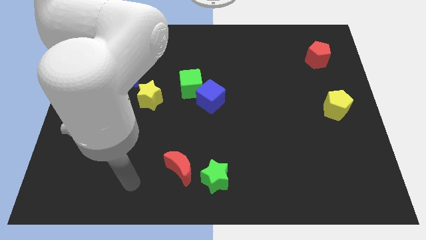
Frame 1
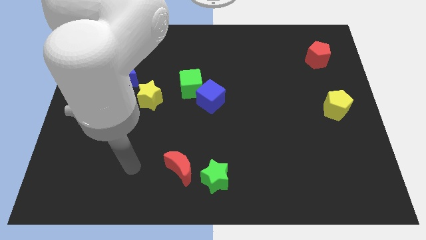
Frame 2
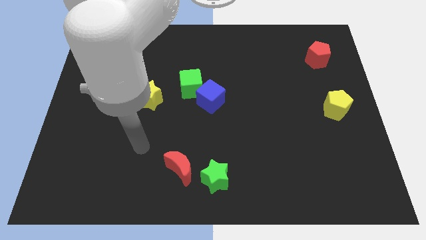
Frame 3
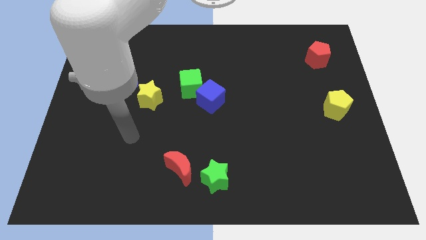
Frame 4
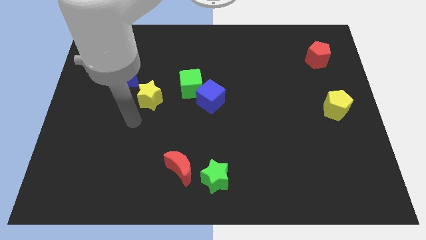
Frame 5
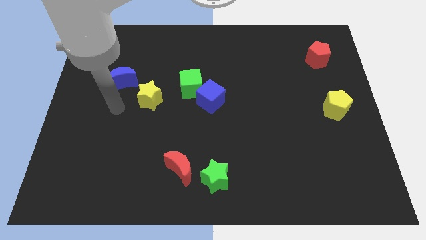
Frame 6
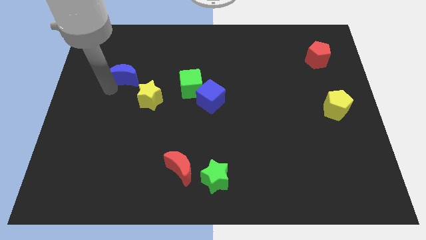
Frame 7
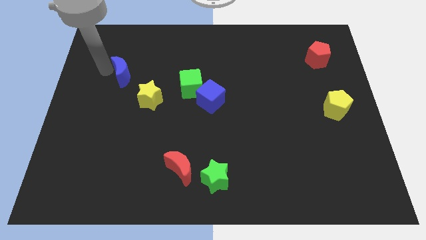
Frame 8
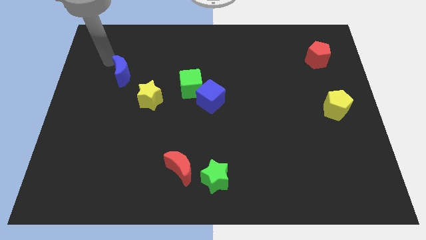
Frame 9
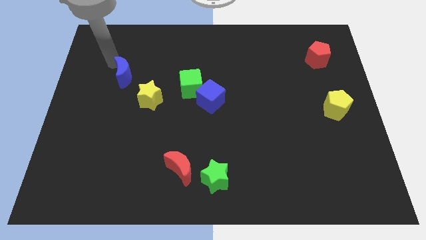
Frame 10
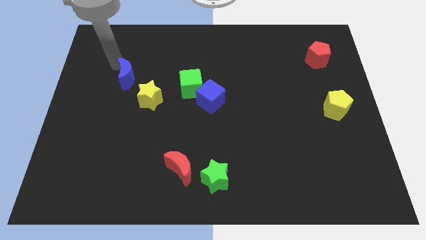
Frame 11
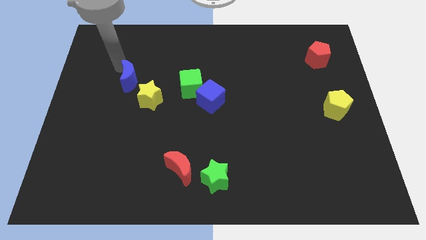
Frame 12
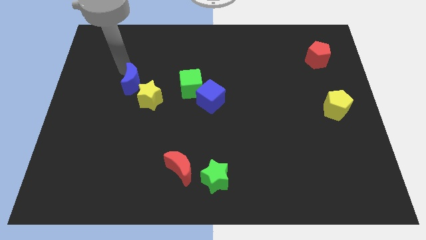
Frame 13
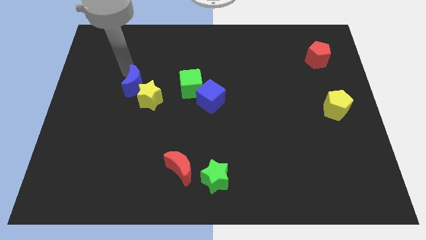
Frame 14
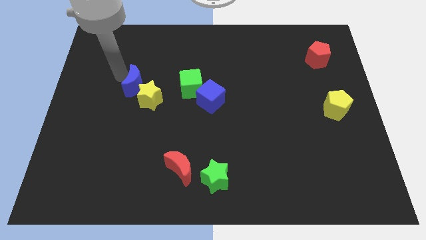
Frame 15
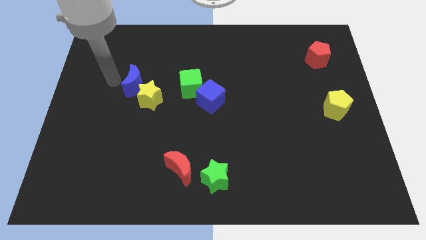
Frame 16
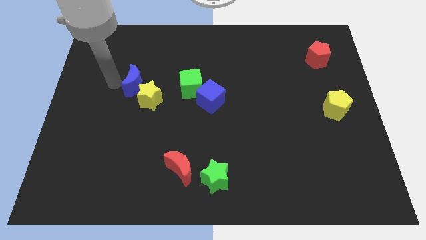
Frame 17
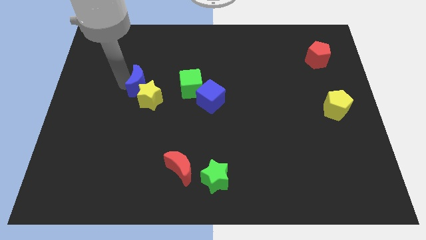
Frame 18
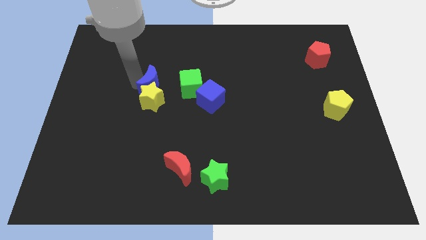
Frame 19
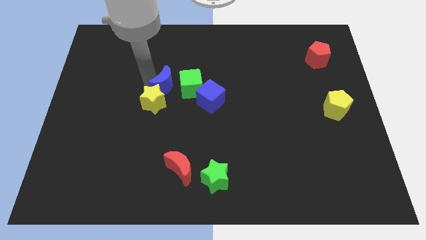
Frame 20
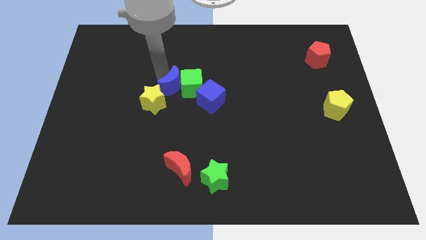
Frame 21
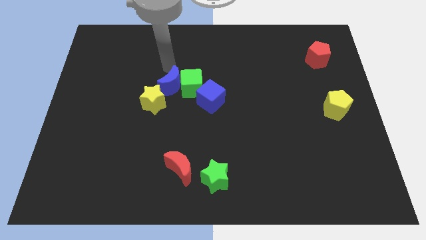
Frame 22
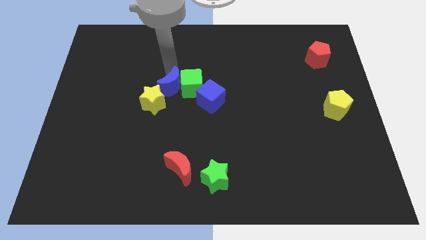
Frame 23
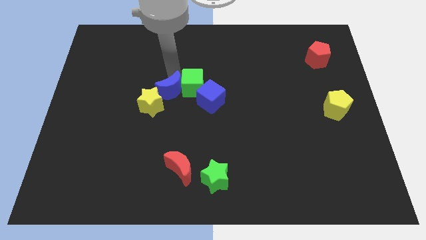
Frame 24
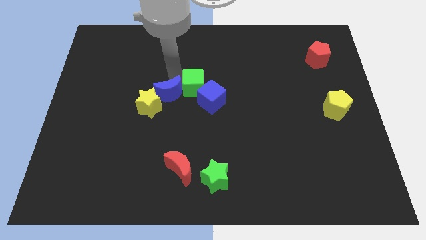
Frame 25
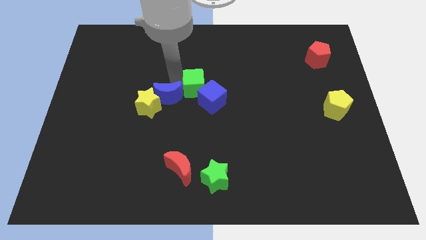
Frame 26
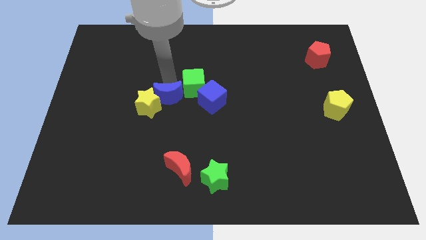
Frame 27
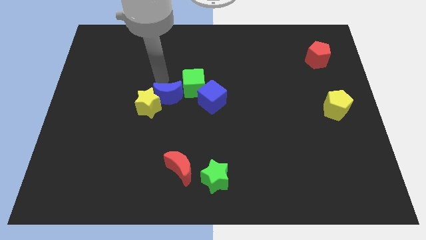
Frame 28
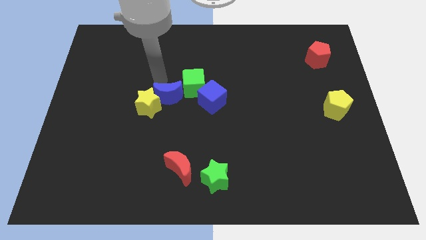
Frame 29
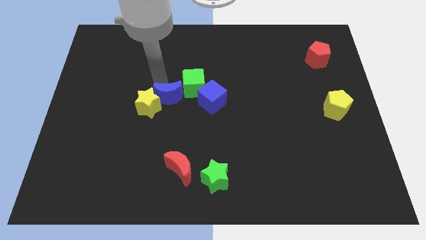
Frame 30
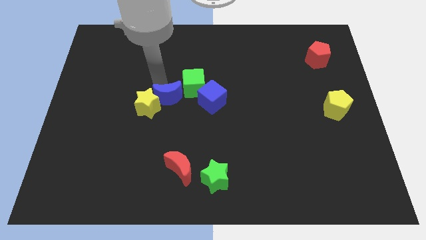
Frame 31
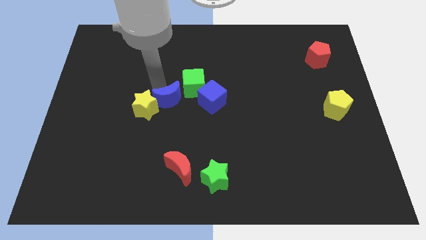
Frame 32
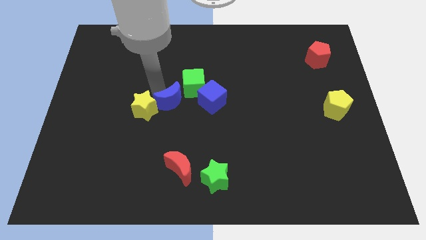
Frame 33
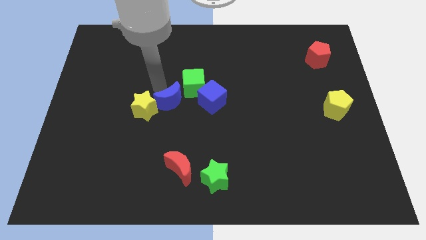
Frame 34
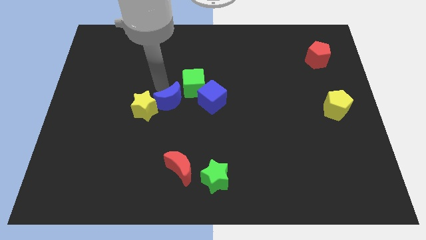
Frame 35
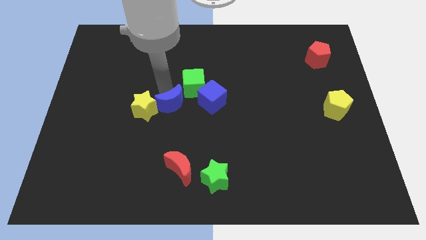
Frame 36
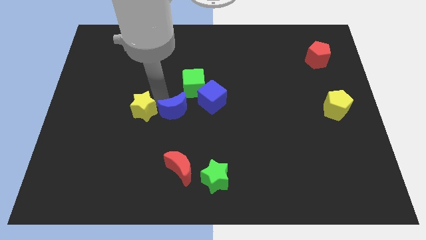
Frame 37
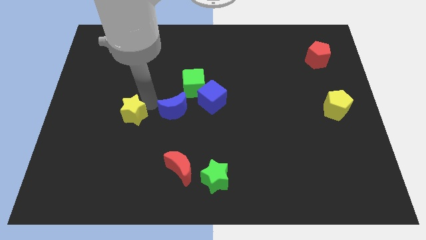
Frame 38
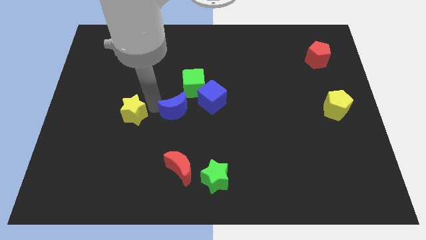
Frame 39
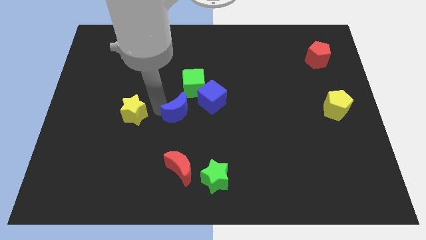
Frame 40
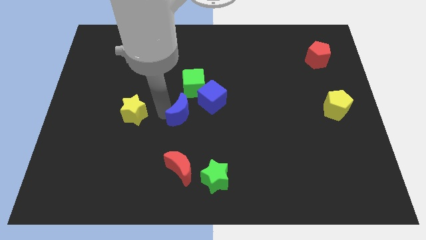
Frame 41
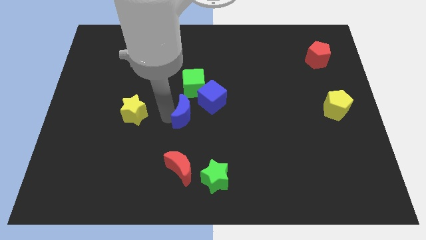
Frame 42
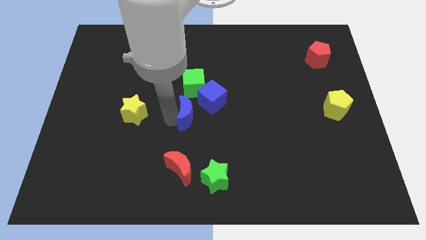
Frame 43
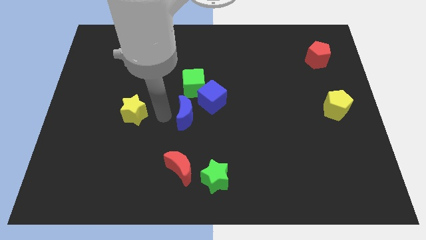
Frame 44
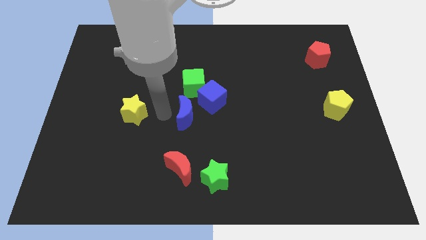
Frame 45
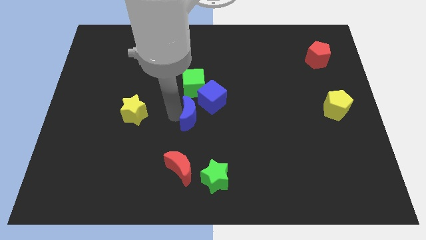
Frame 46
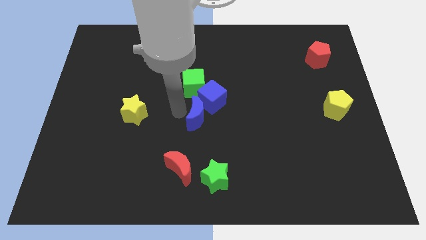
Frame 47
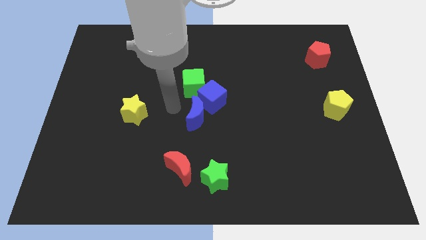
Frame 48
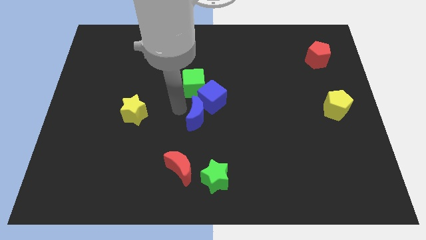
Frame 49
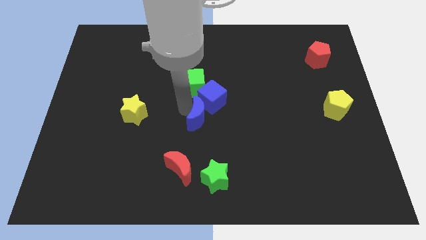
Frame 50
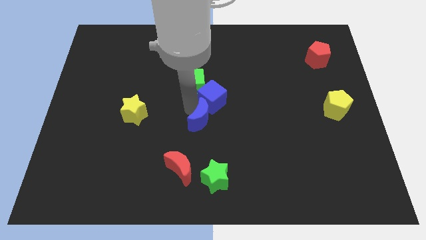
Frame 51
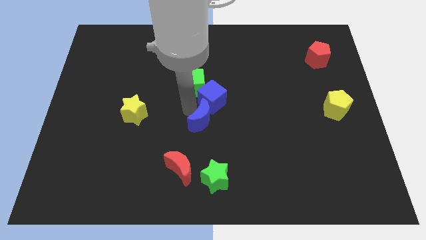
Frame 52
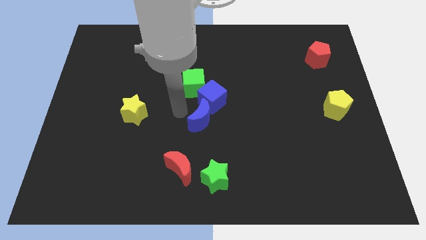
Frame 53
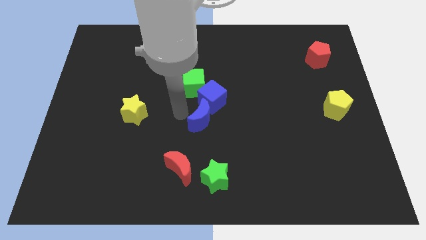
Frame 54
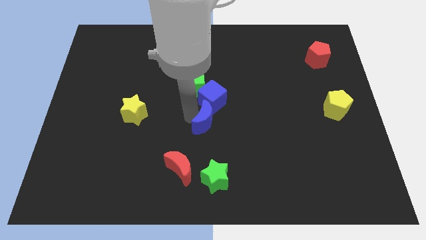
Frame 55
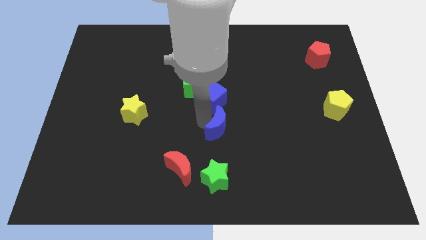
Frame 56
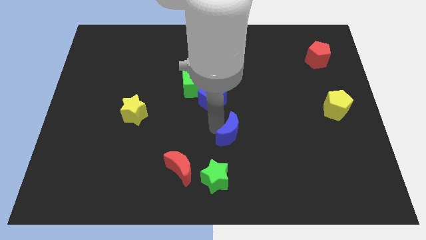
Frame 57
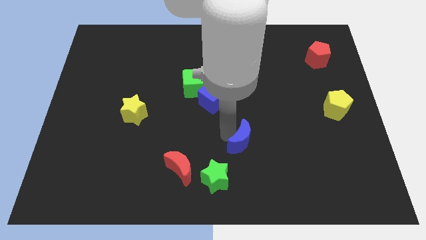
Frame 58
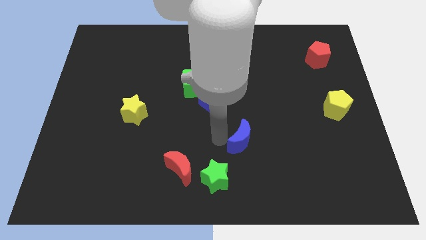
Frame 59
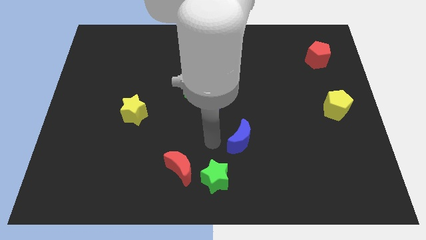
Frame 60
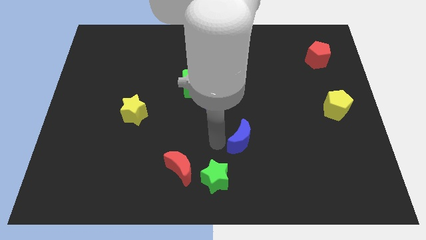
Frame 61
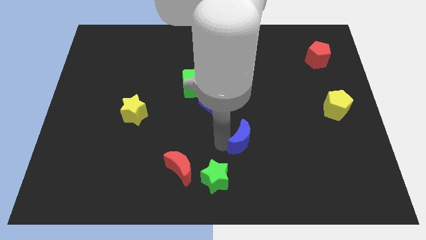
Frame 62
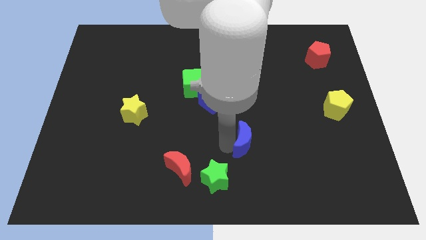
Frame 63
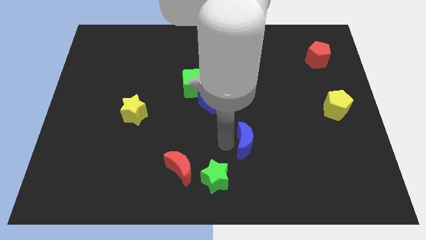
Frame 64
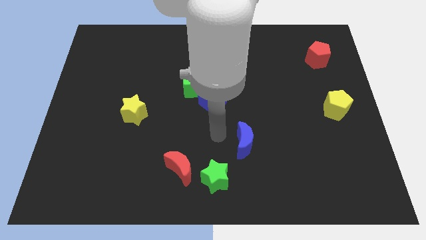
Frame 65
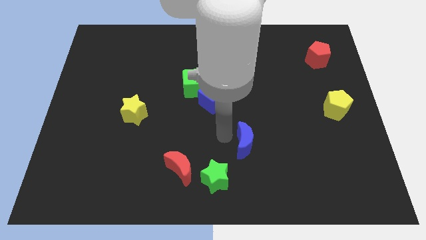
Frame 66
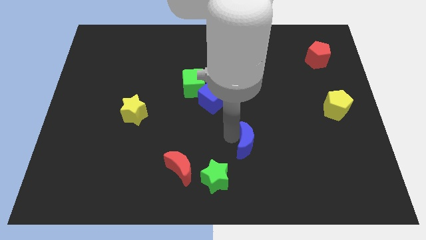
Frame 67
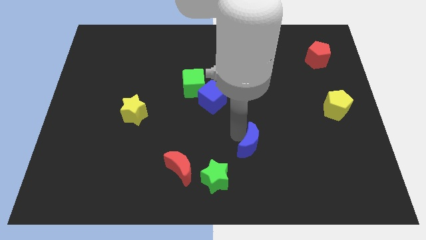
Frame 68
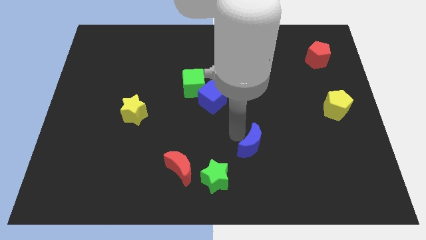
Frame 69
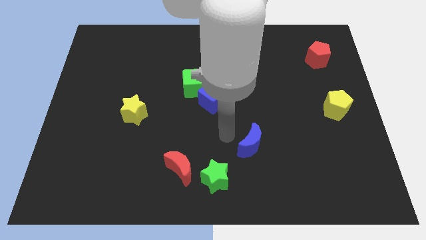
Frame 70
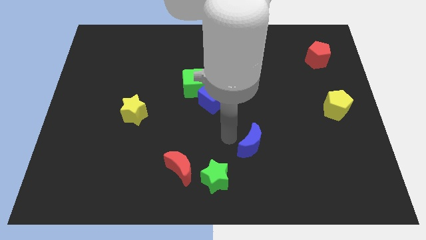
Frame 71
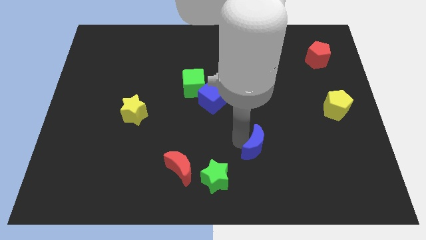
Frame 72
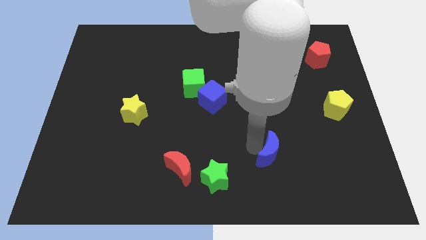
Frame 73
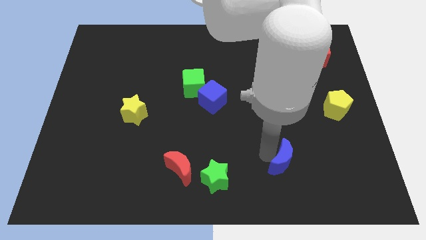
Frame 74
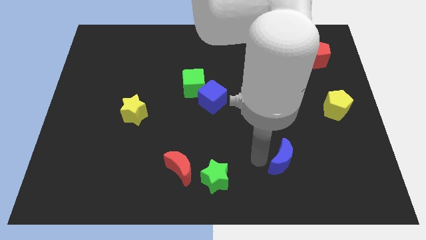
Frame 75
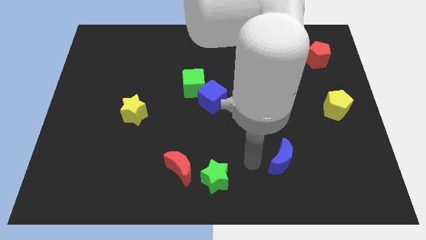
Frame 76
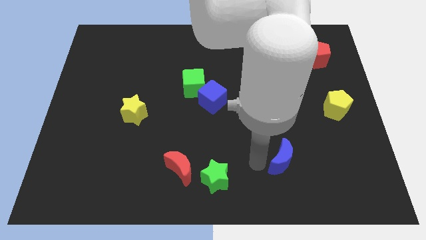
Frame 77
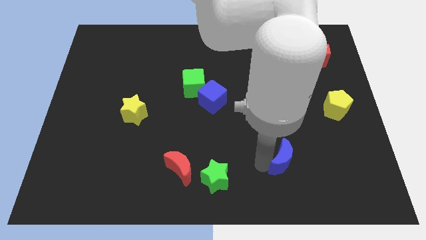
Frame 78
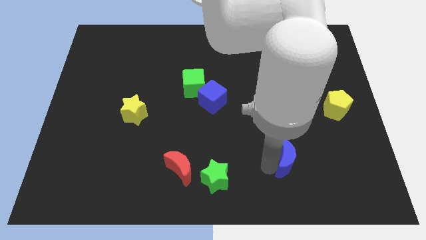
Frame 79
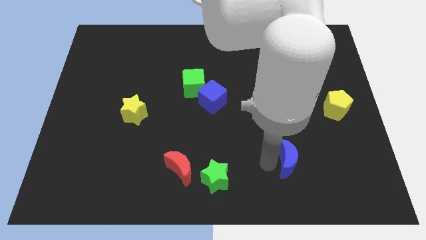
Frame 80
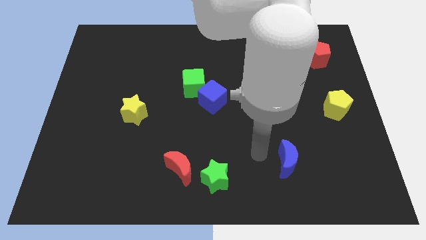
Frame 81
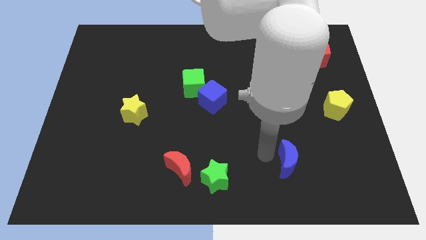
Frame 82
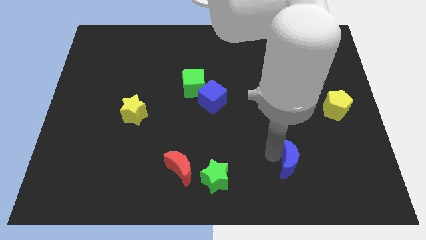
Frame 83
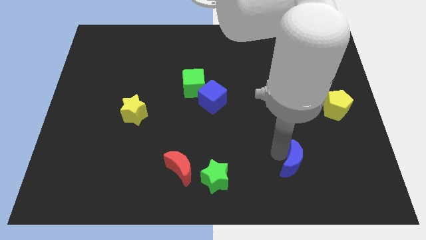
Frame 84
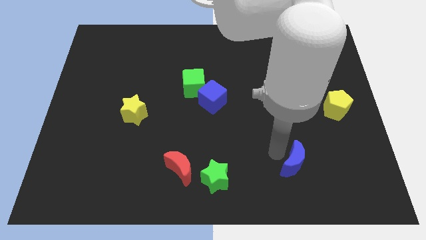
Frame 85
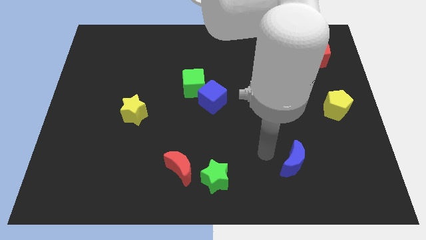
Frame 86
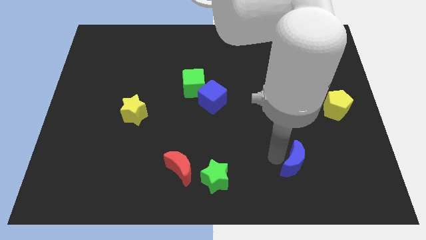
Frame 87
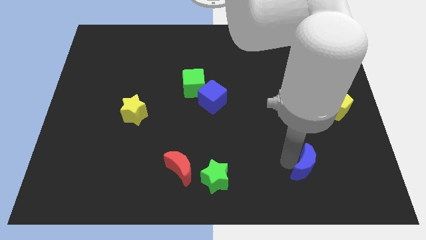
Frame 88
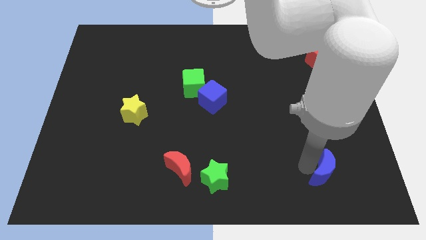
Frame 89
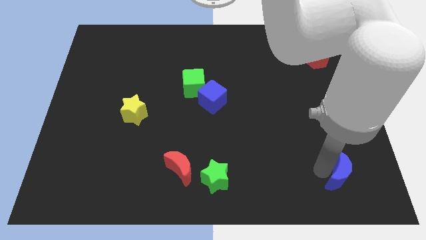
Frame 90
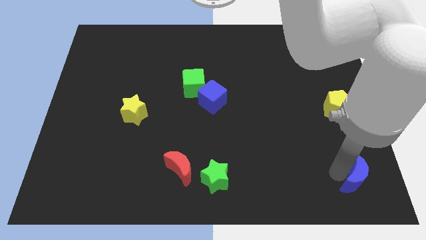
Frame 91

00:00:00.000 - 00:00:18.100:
slide the blue moon to the bottom right corner
